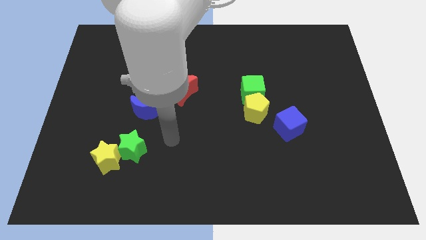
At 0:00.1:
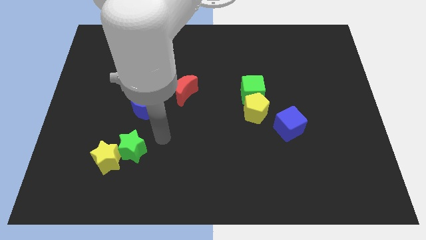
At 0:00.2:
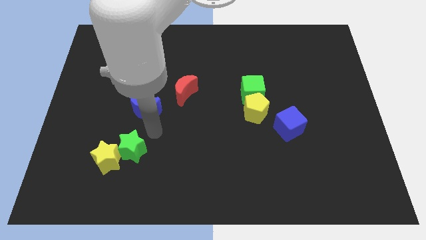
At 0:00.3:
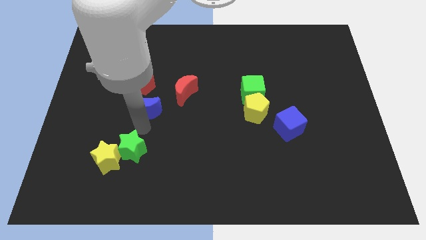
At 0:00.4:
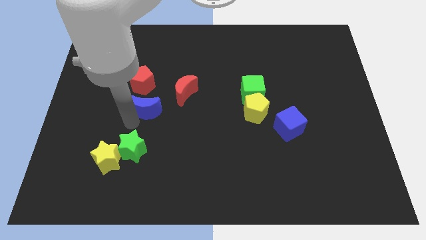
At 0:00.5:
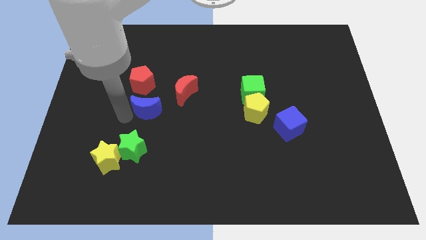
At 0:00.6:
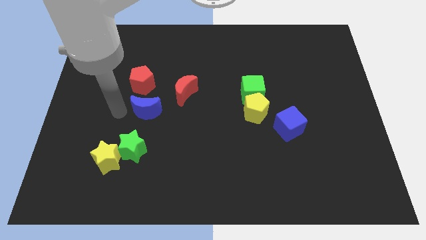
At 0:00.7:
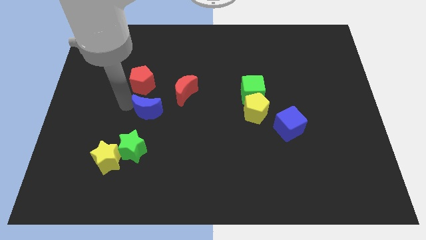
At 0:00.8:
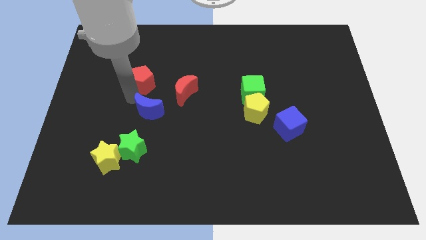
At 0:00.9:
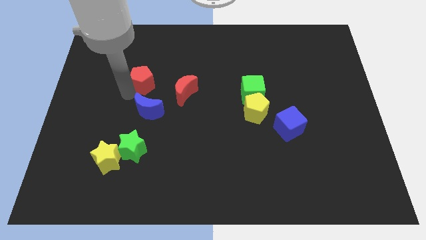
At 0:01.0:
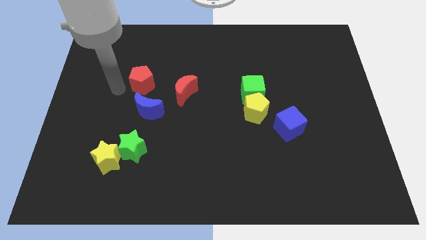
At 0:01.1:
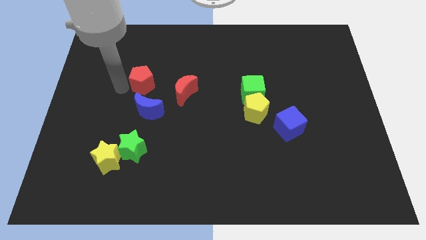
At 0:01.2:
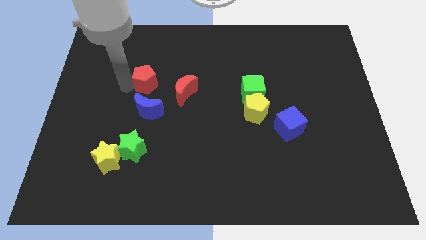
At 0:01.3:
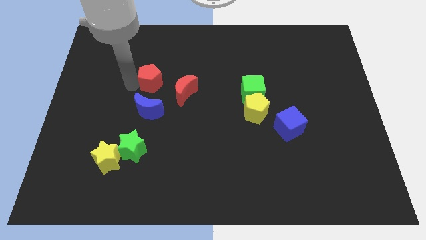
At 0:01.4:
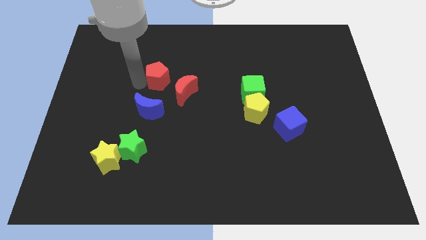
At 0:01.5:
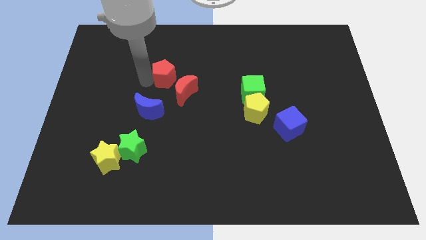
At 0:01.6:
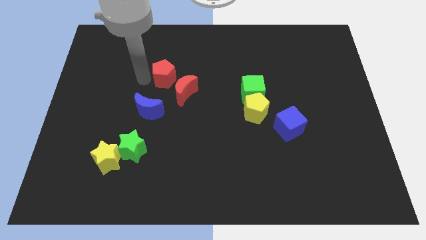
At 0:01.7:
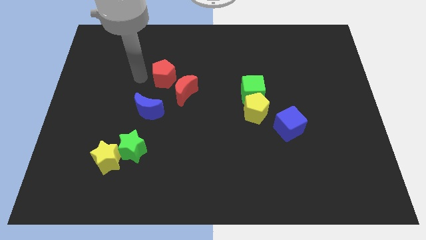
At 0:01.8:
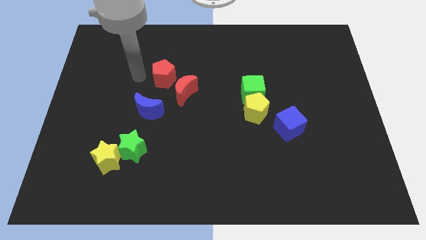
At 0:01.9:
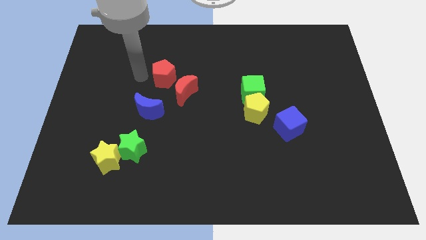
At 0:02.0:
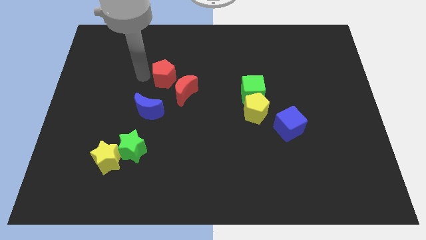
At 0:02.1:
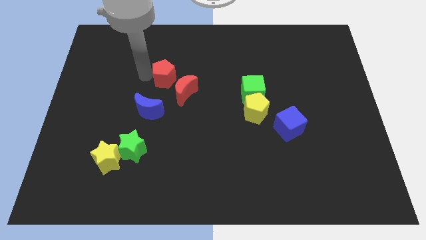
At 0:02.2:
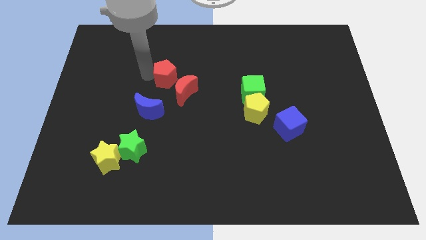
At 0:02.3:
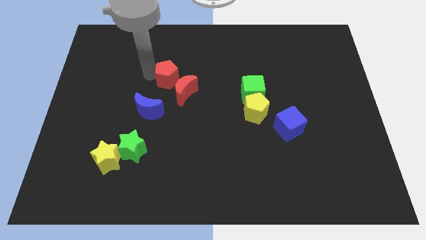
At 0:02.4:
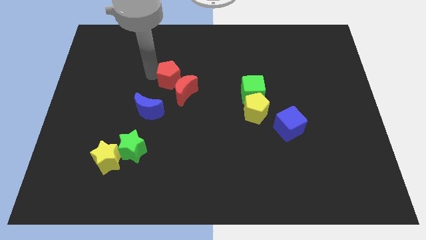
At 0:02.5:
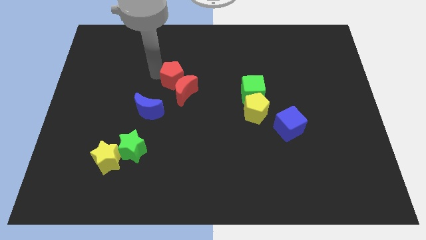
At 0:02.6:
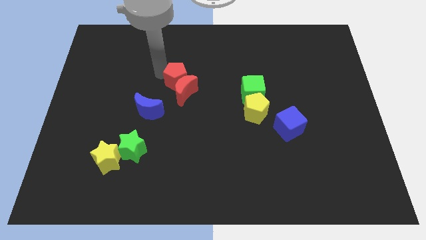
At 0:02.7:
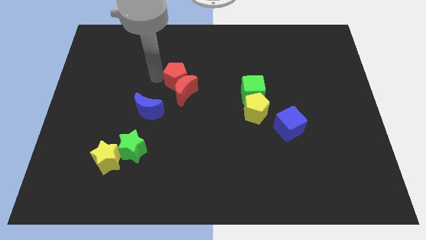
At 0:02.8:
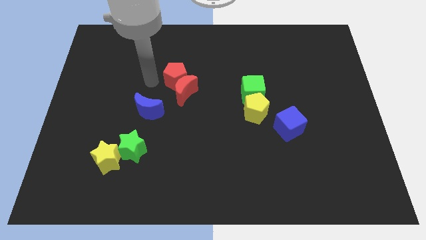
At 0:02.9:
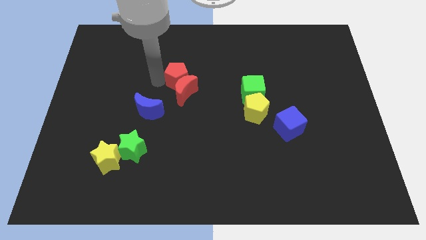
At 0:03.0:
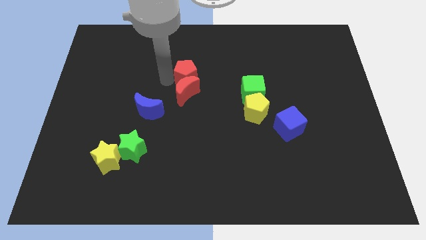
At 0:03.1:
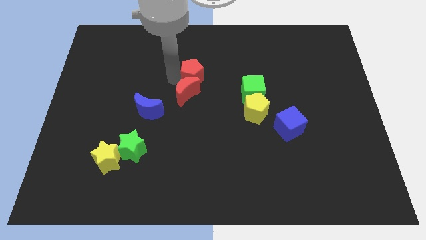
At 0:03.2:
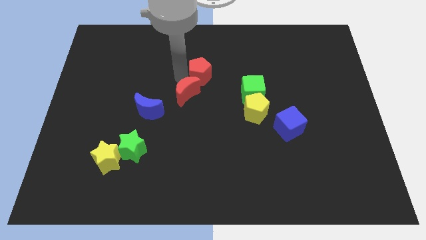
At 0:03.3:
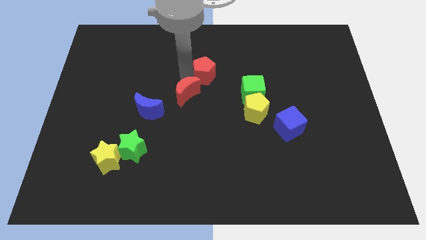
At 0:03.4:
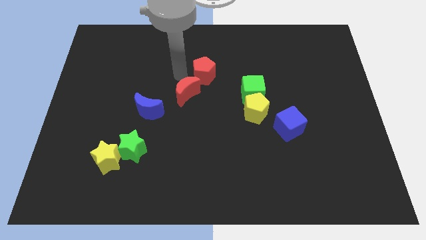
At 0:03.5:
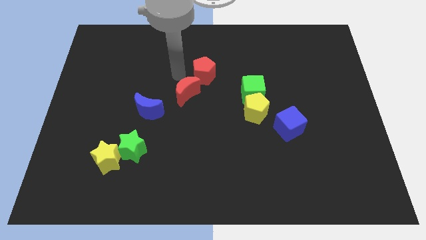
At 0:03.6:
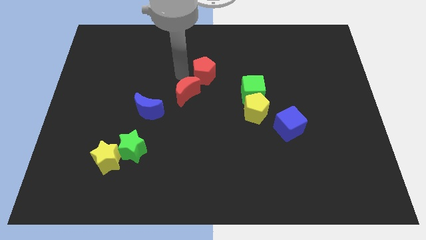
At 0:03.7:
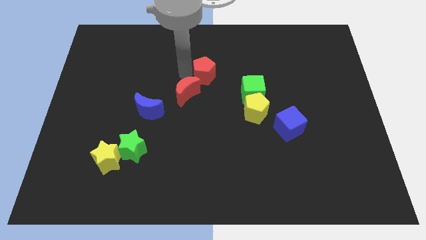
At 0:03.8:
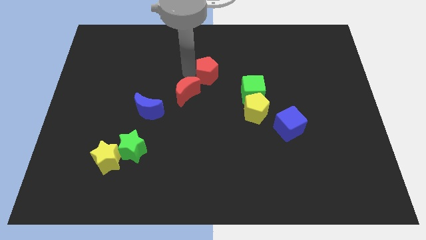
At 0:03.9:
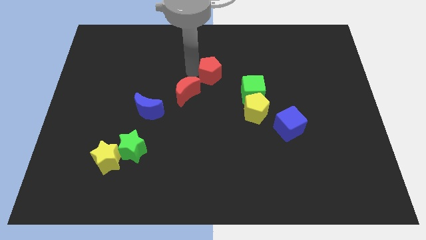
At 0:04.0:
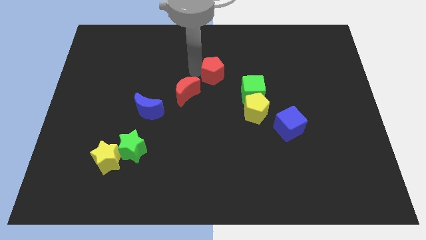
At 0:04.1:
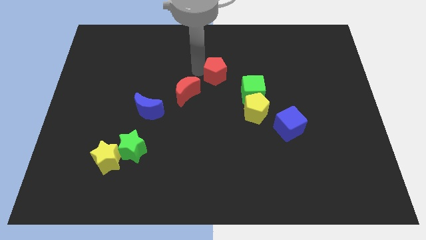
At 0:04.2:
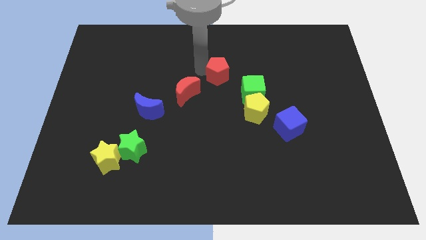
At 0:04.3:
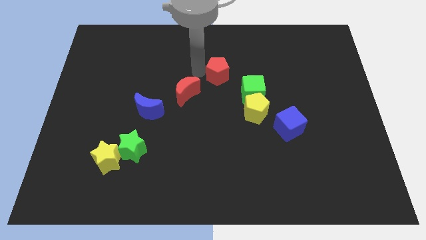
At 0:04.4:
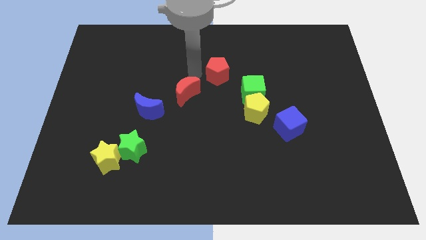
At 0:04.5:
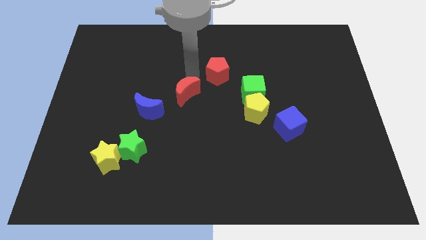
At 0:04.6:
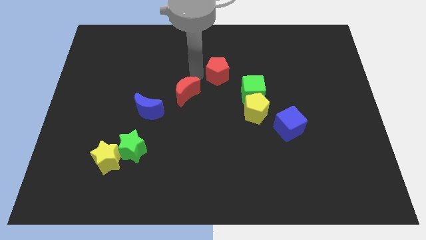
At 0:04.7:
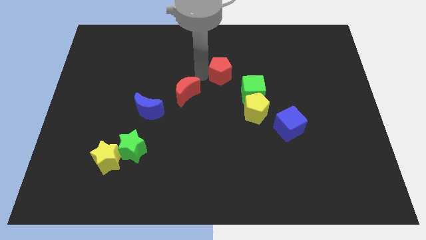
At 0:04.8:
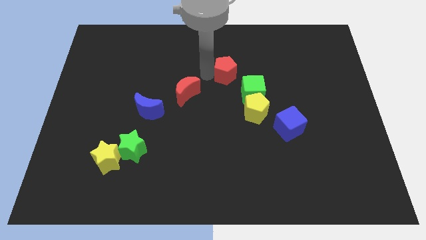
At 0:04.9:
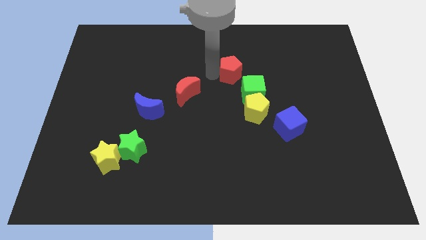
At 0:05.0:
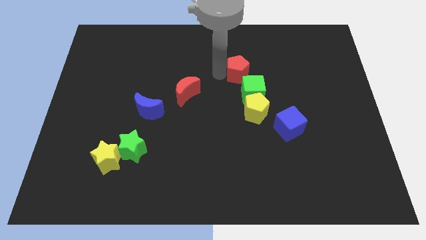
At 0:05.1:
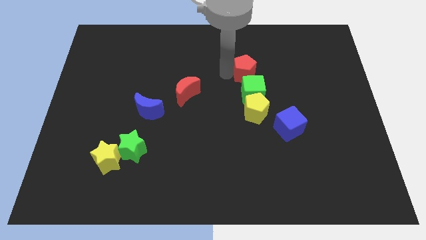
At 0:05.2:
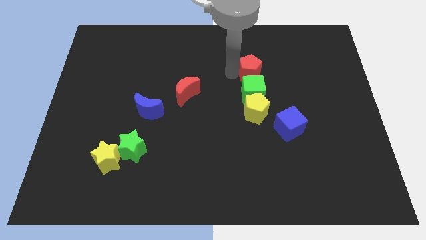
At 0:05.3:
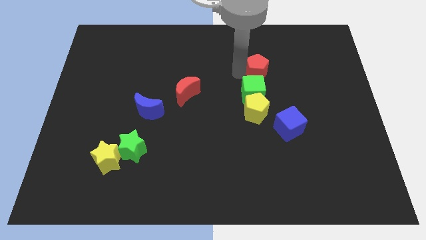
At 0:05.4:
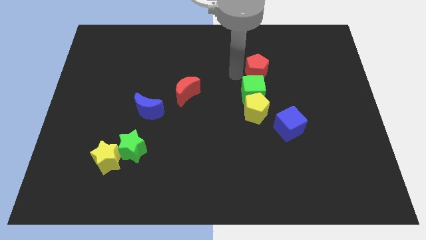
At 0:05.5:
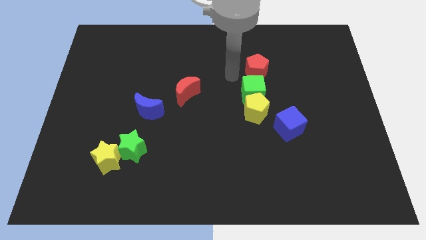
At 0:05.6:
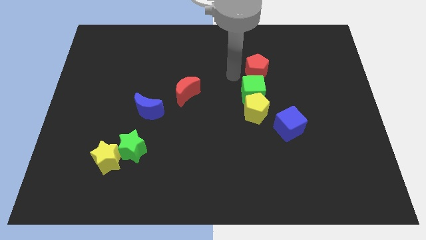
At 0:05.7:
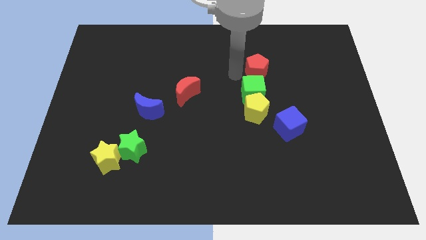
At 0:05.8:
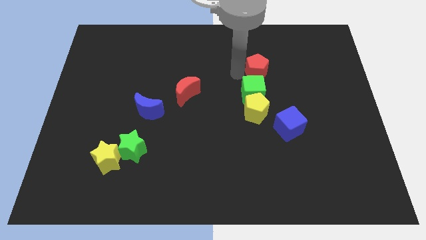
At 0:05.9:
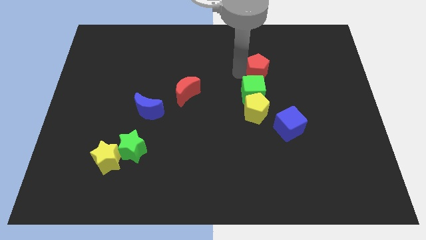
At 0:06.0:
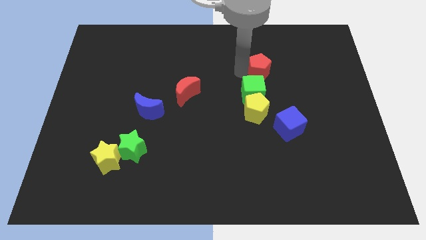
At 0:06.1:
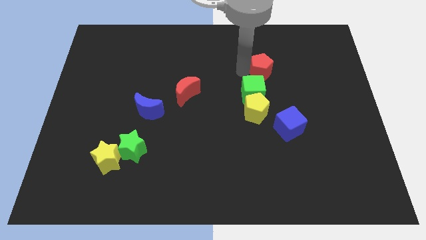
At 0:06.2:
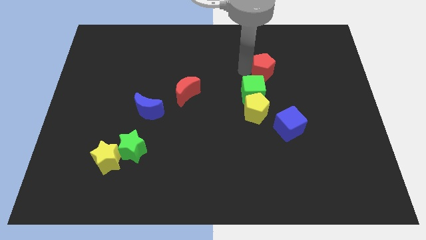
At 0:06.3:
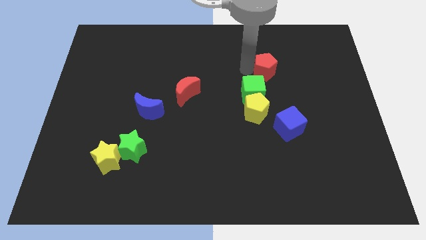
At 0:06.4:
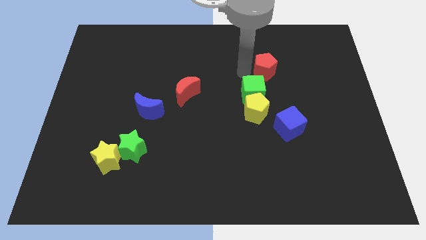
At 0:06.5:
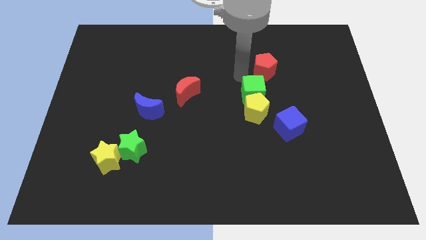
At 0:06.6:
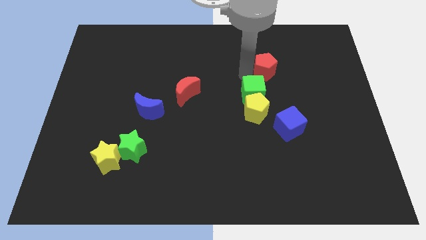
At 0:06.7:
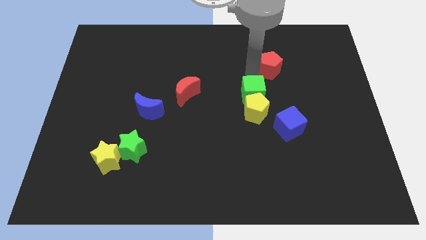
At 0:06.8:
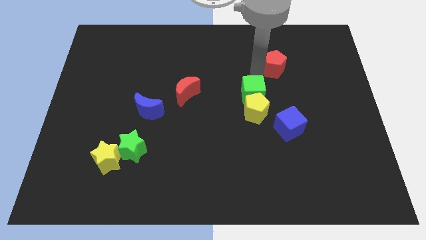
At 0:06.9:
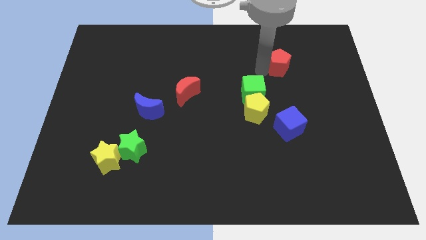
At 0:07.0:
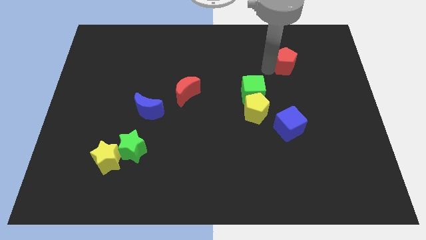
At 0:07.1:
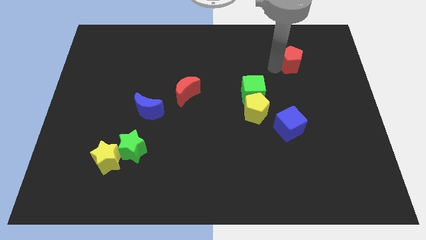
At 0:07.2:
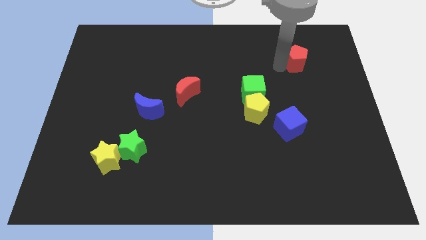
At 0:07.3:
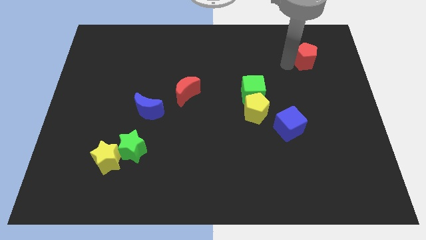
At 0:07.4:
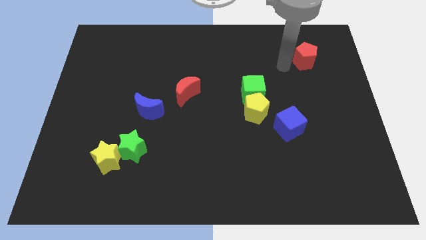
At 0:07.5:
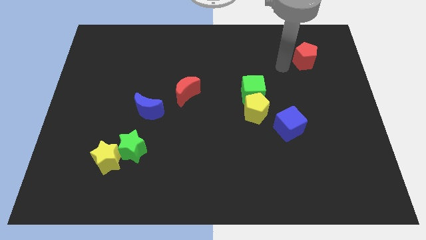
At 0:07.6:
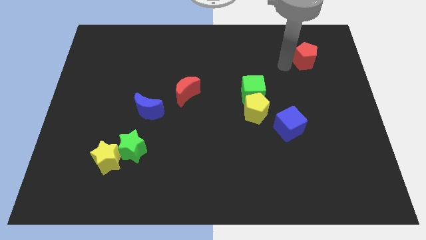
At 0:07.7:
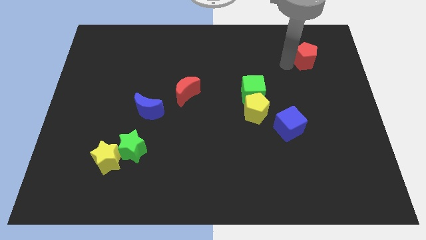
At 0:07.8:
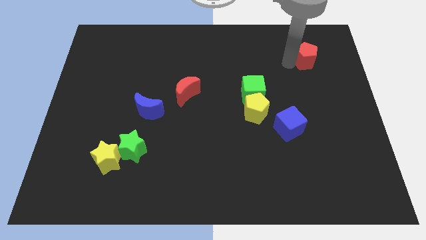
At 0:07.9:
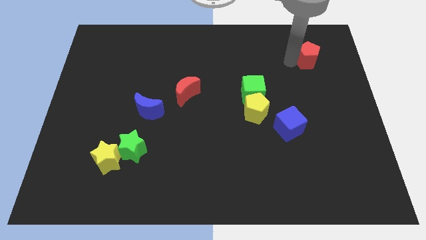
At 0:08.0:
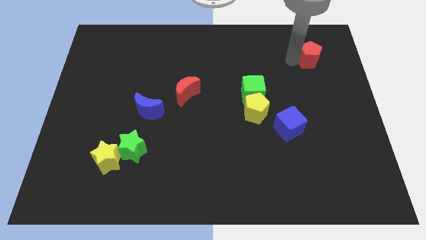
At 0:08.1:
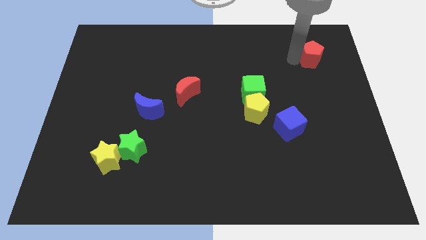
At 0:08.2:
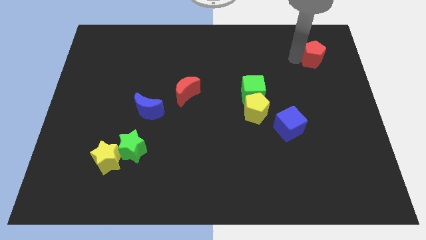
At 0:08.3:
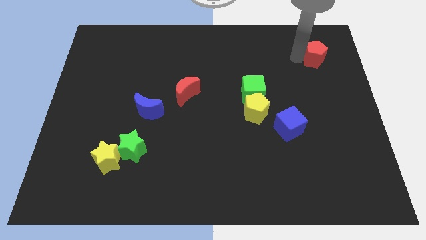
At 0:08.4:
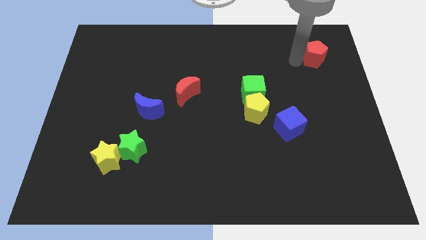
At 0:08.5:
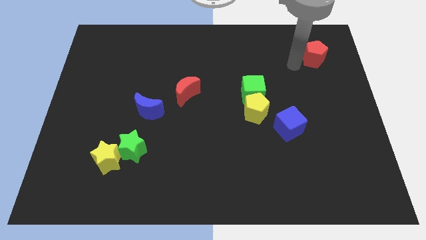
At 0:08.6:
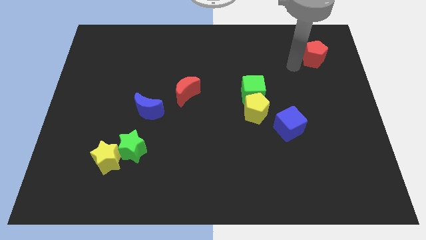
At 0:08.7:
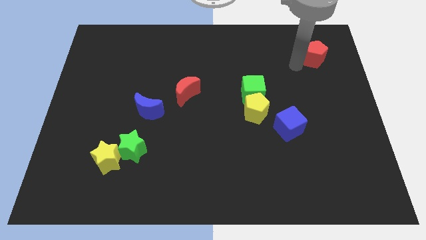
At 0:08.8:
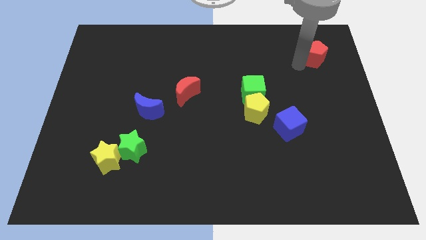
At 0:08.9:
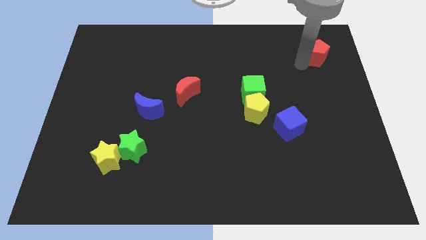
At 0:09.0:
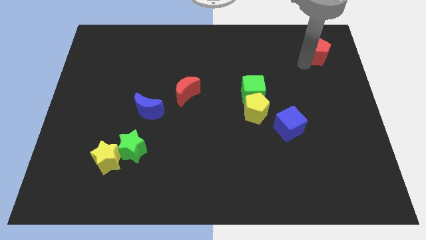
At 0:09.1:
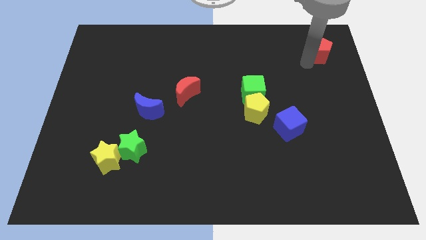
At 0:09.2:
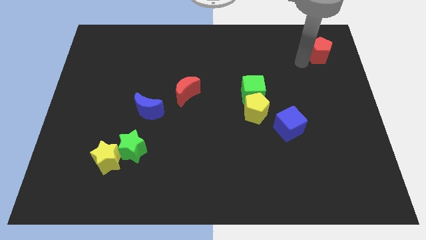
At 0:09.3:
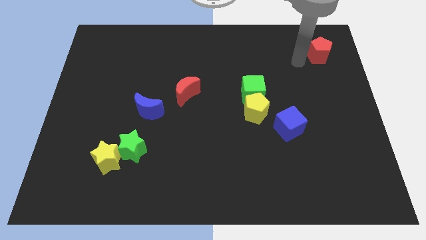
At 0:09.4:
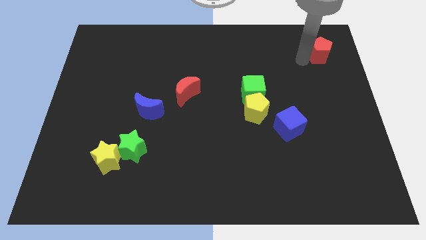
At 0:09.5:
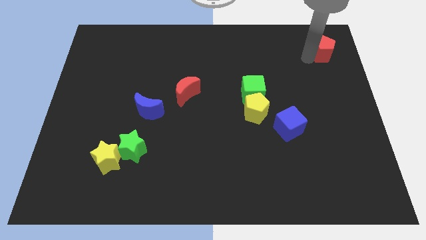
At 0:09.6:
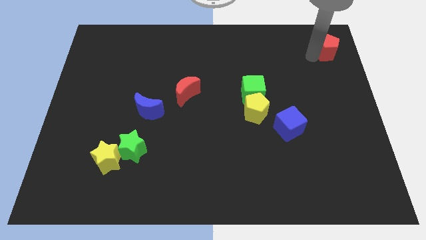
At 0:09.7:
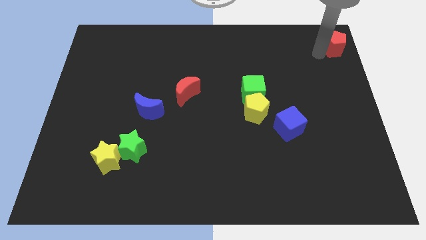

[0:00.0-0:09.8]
put the red pentagon to the upper right corner
